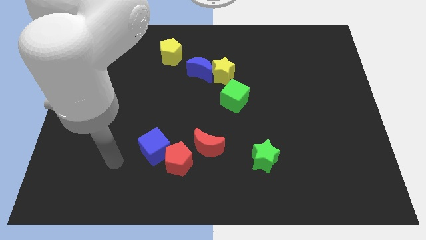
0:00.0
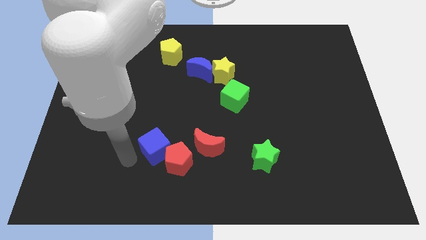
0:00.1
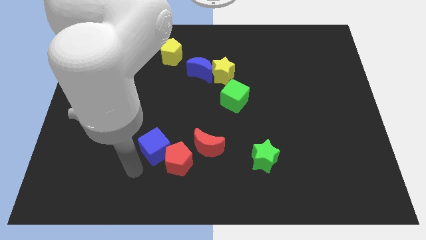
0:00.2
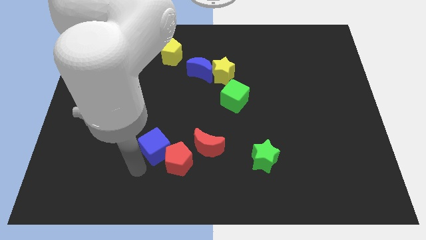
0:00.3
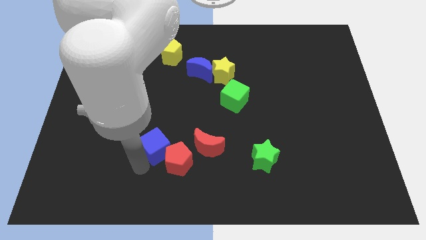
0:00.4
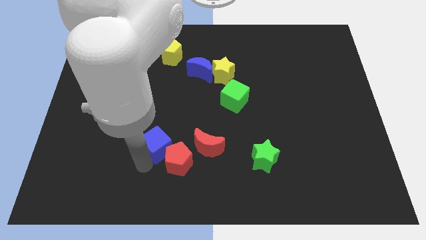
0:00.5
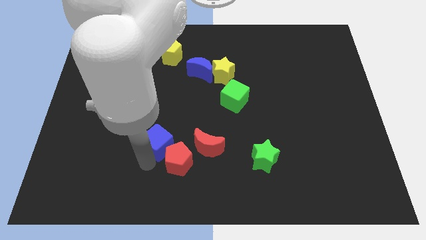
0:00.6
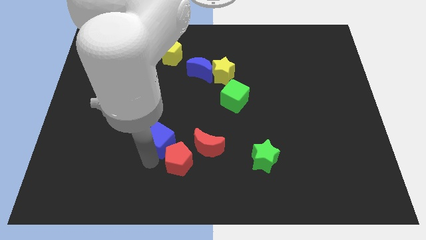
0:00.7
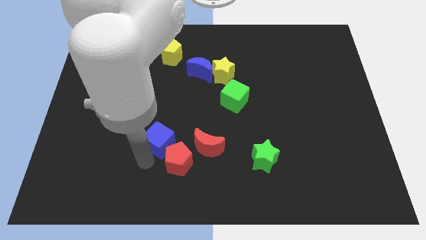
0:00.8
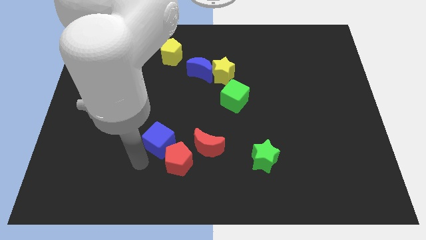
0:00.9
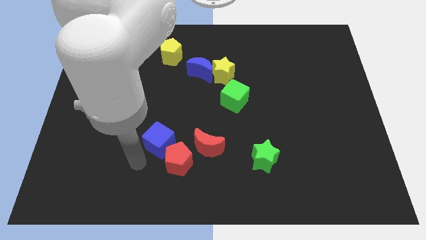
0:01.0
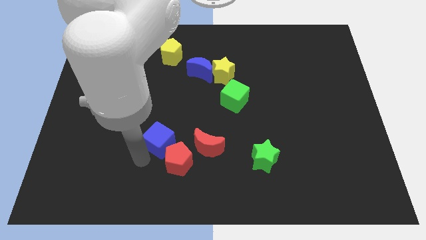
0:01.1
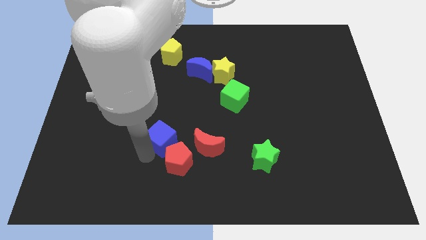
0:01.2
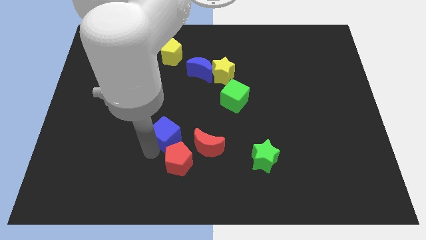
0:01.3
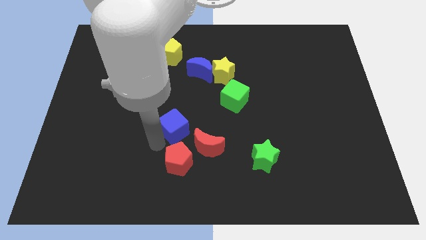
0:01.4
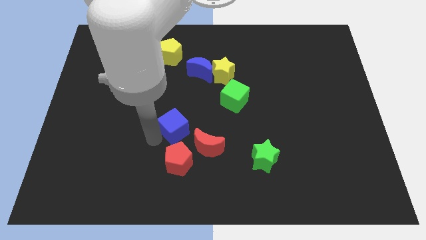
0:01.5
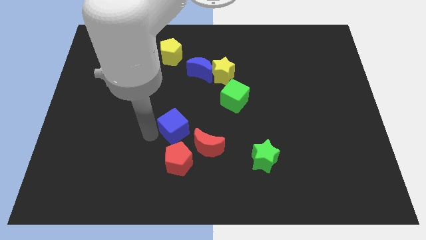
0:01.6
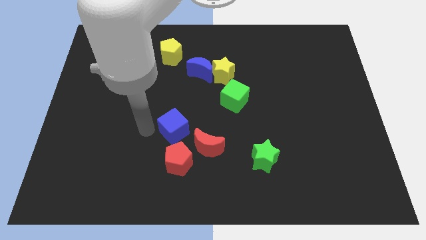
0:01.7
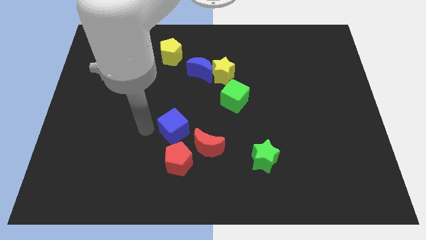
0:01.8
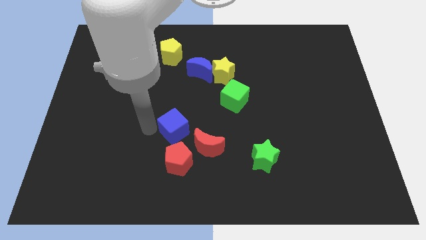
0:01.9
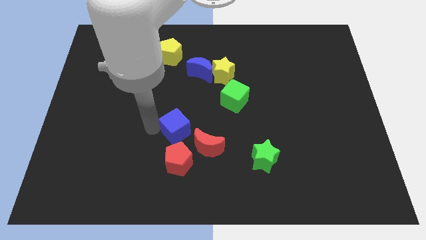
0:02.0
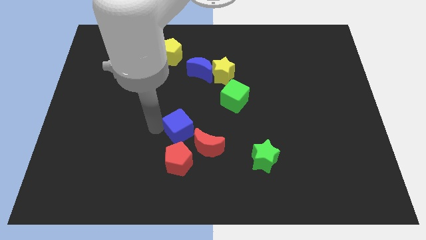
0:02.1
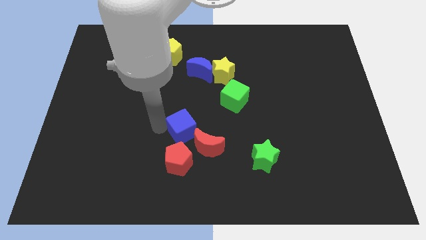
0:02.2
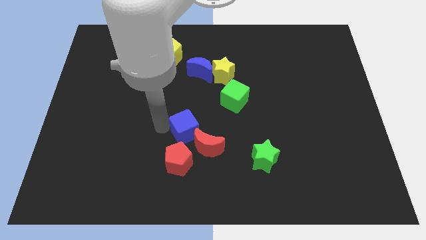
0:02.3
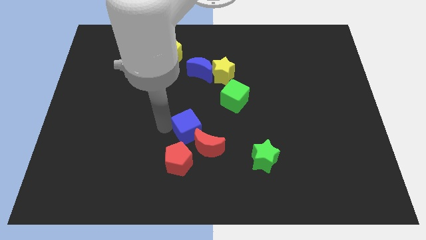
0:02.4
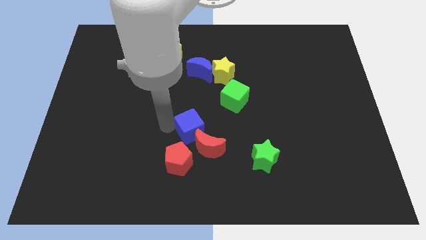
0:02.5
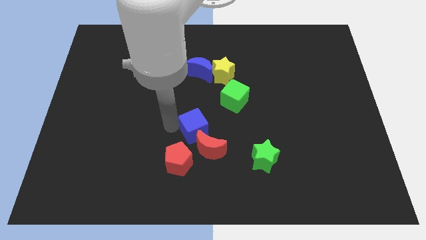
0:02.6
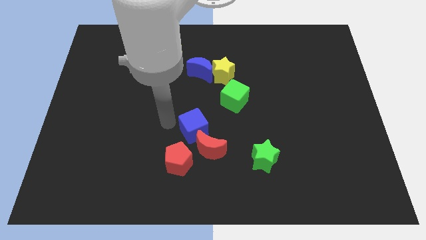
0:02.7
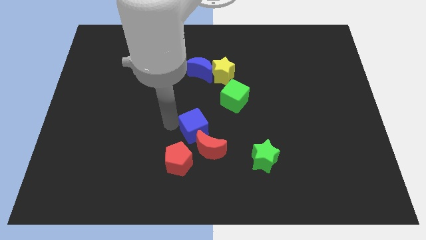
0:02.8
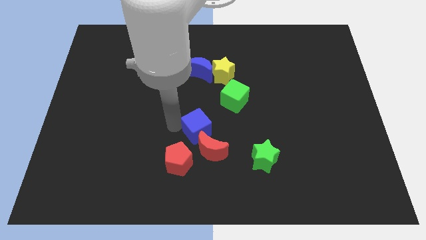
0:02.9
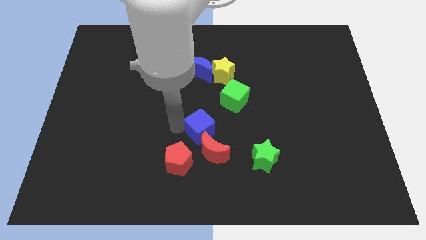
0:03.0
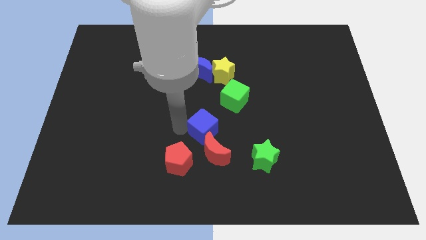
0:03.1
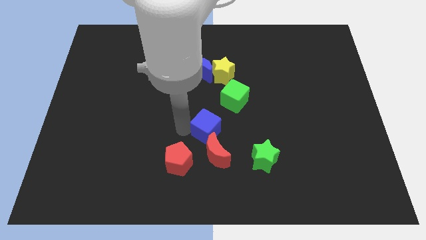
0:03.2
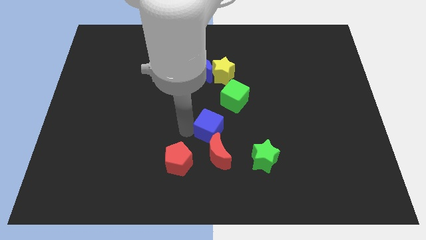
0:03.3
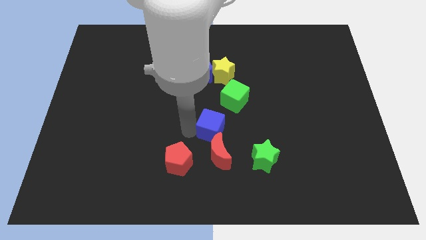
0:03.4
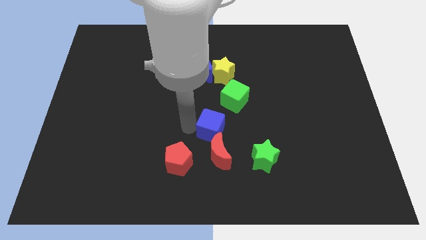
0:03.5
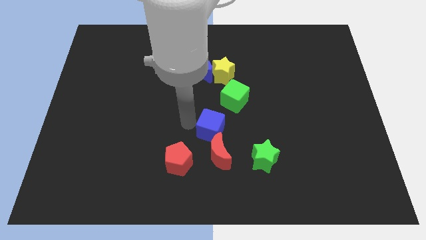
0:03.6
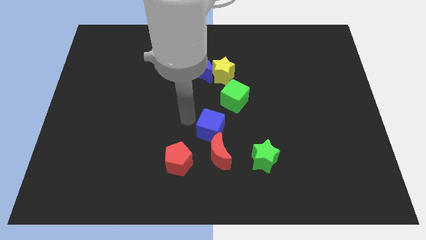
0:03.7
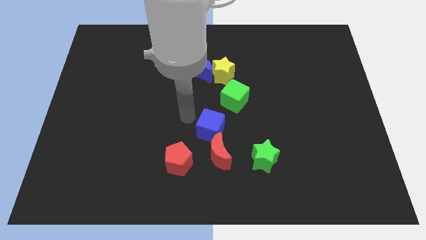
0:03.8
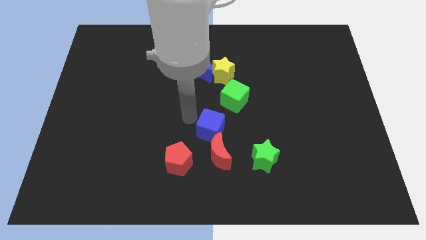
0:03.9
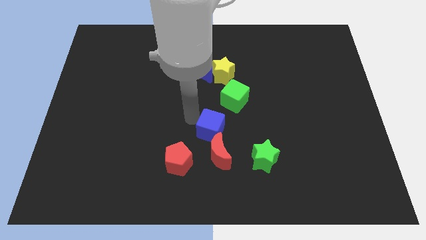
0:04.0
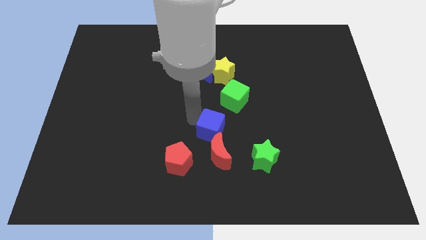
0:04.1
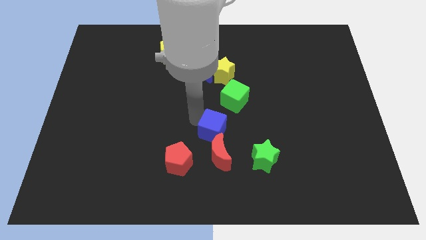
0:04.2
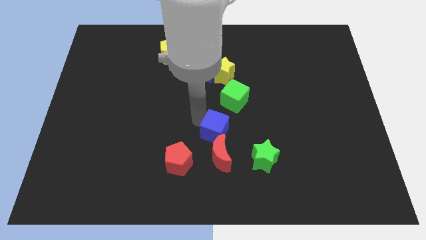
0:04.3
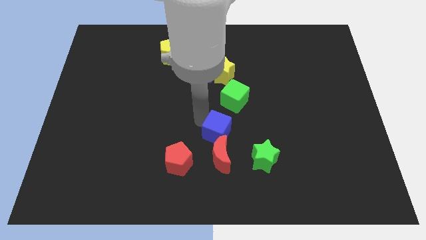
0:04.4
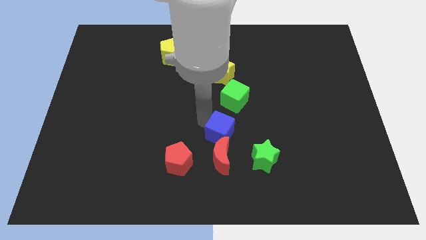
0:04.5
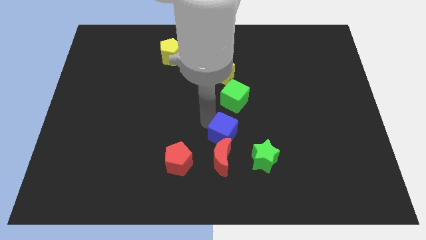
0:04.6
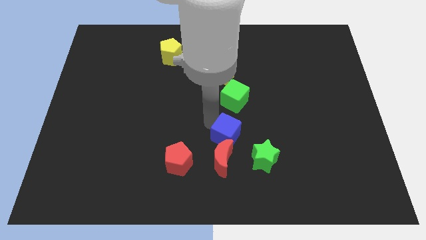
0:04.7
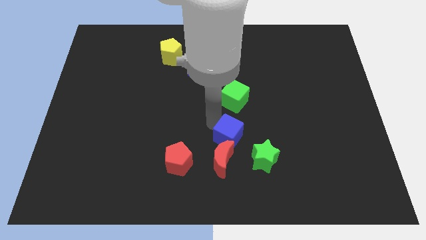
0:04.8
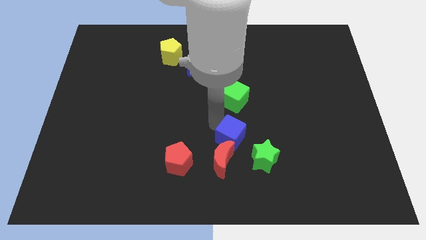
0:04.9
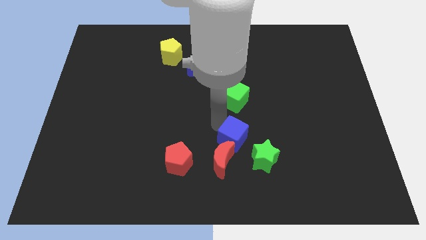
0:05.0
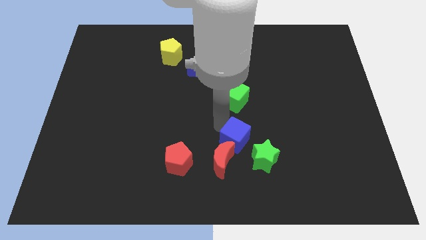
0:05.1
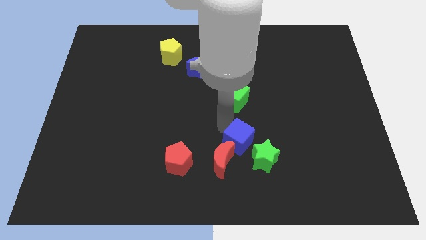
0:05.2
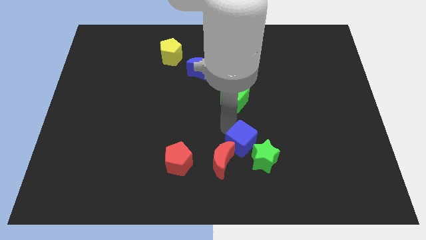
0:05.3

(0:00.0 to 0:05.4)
move the blue cube to the green star

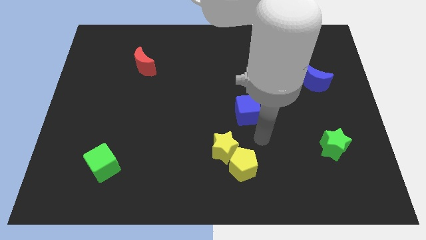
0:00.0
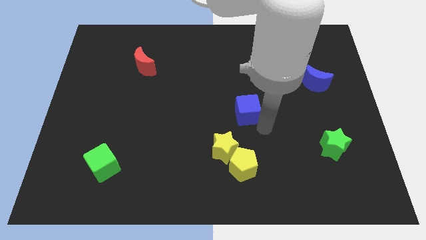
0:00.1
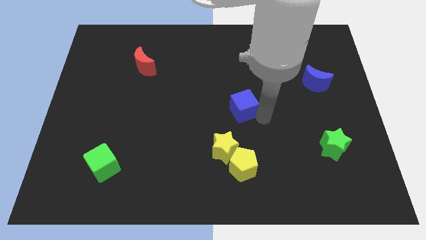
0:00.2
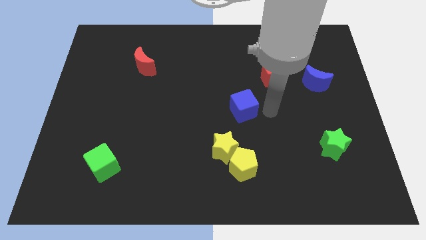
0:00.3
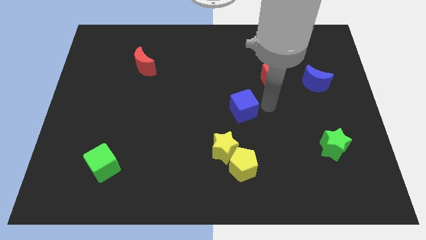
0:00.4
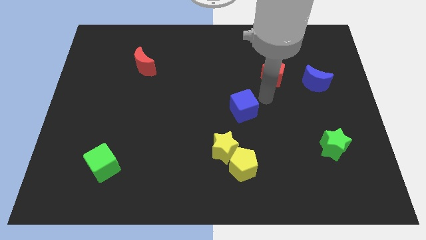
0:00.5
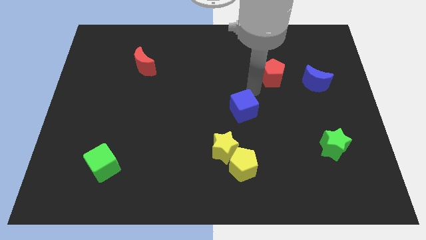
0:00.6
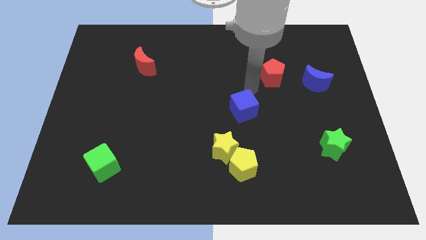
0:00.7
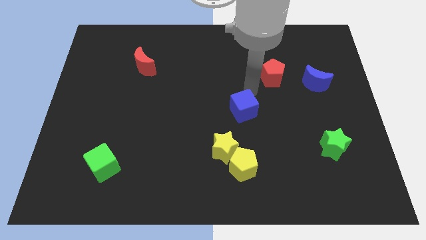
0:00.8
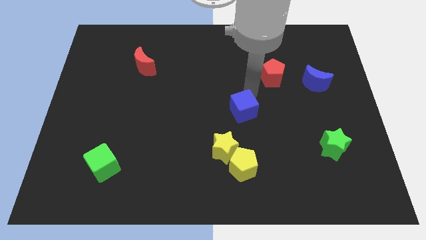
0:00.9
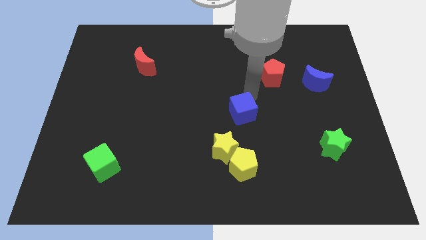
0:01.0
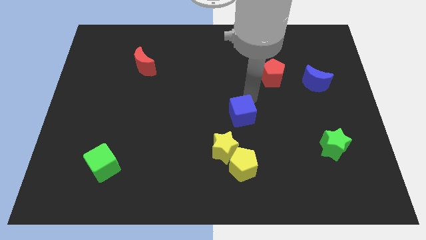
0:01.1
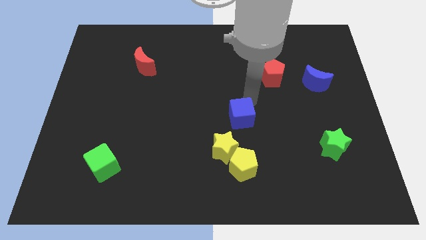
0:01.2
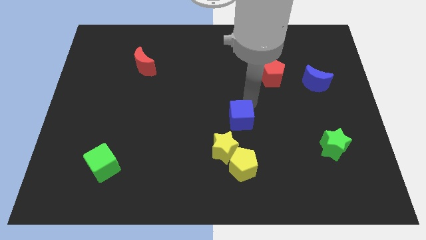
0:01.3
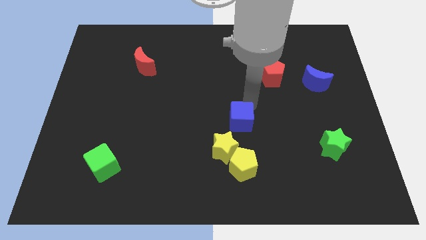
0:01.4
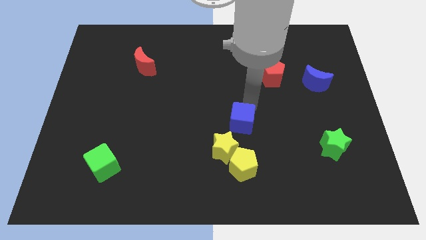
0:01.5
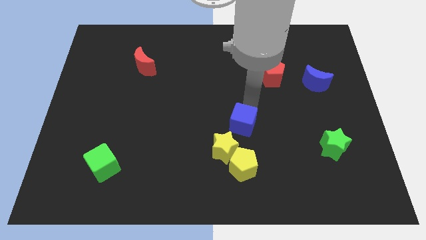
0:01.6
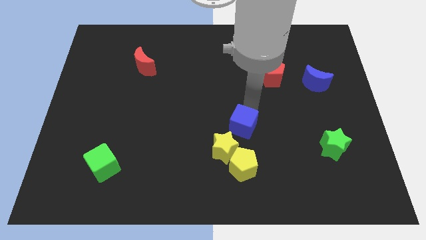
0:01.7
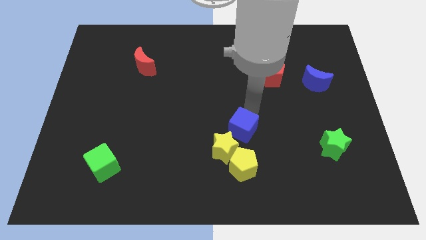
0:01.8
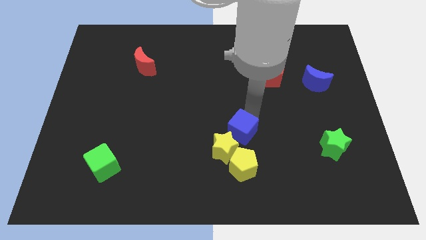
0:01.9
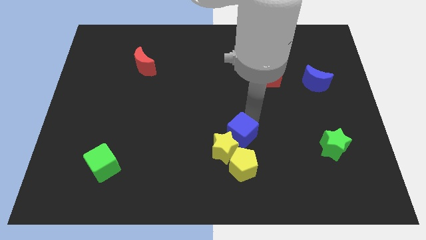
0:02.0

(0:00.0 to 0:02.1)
move the blue cube towards the yellow star

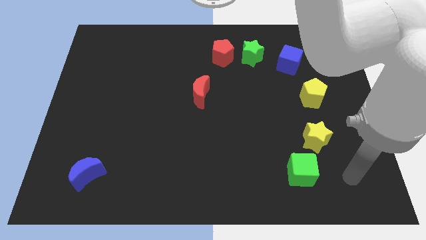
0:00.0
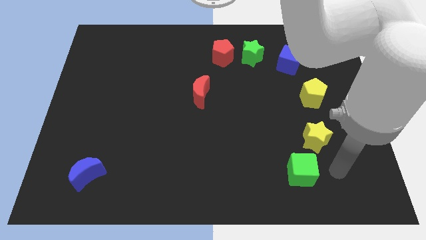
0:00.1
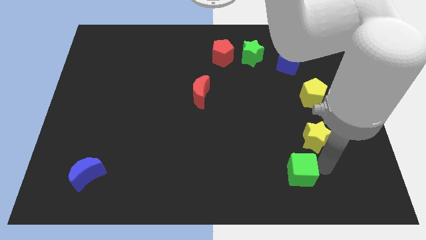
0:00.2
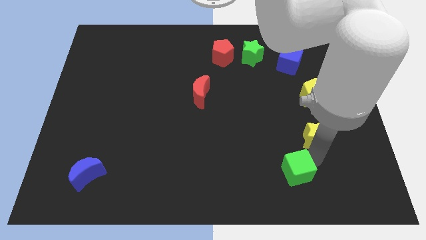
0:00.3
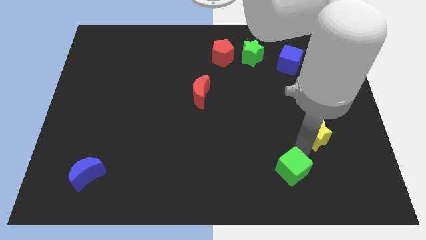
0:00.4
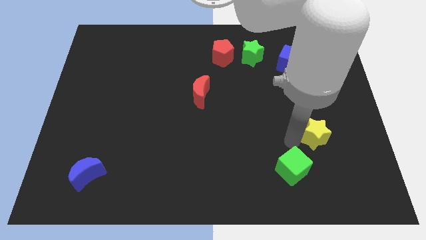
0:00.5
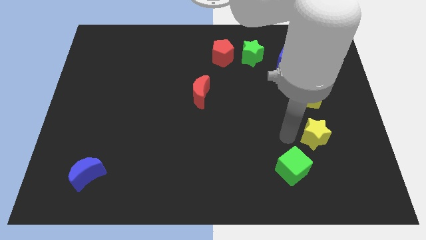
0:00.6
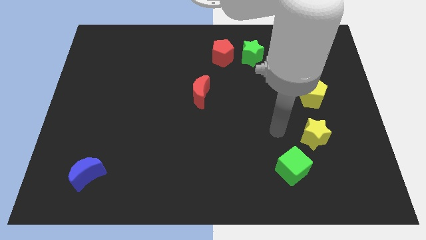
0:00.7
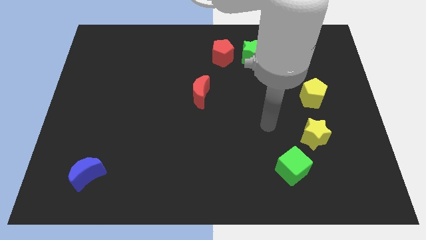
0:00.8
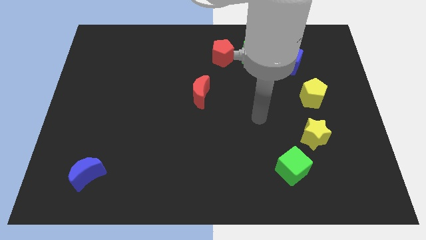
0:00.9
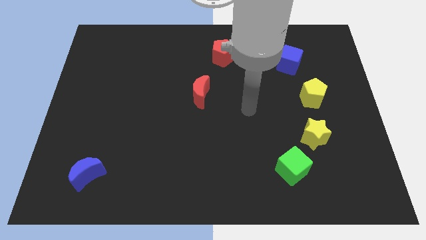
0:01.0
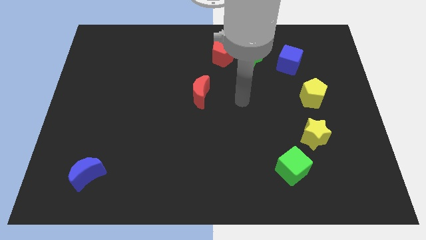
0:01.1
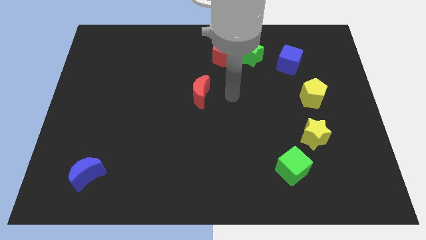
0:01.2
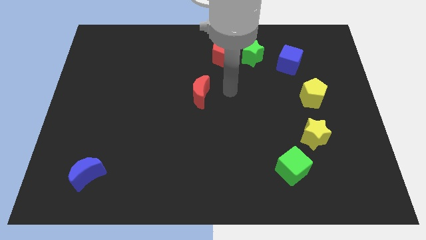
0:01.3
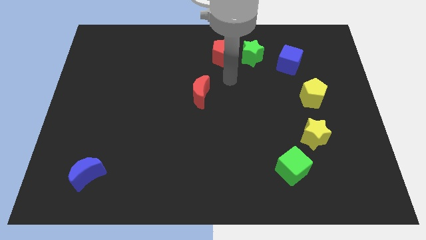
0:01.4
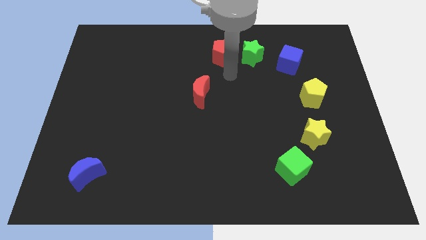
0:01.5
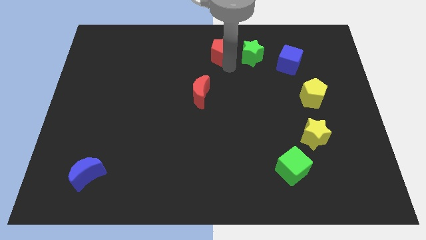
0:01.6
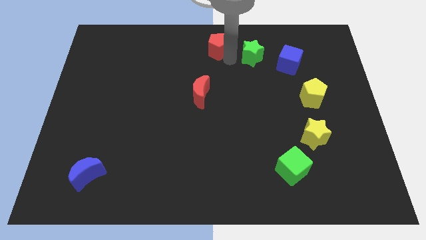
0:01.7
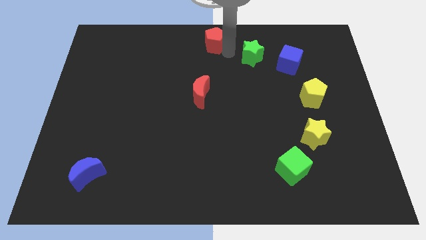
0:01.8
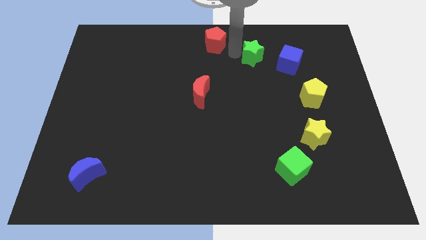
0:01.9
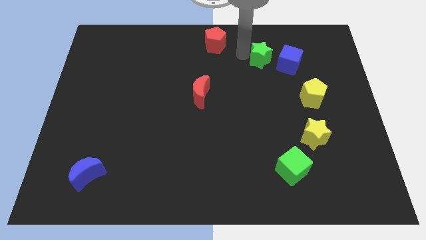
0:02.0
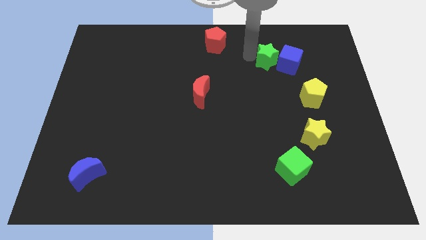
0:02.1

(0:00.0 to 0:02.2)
slide the green star towards the blue cube
